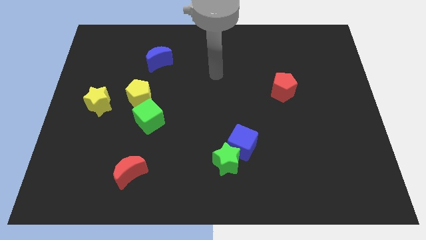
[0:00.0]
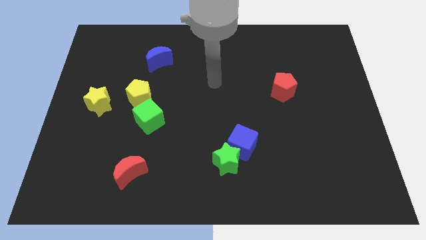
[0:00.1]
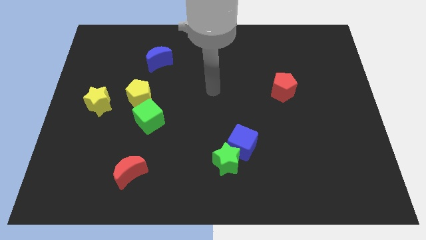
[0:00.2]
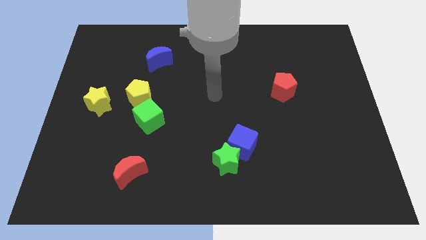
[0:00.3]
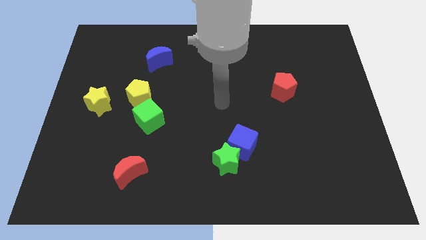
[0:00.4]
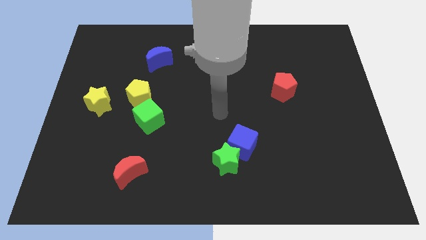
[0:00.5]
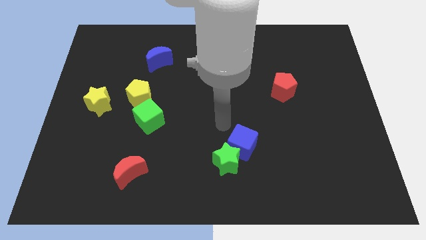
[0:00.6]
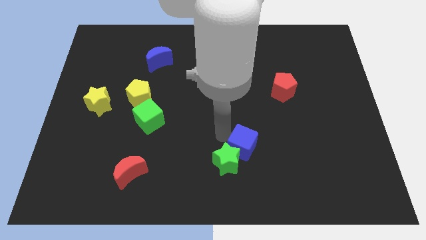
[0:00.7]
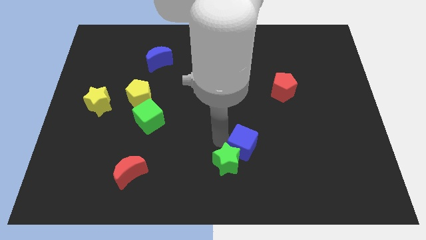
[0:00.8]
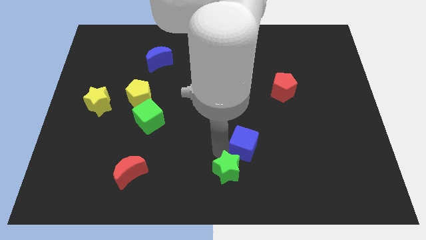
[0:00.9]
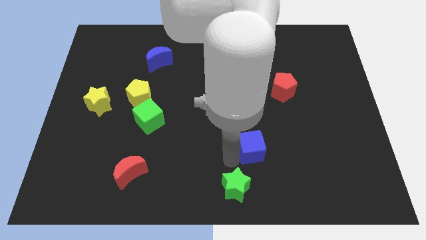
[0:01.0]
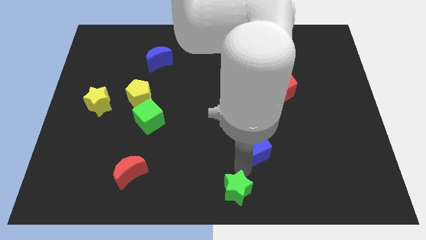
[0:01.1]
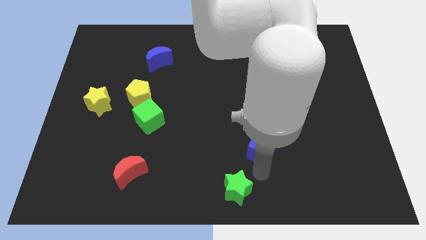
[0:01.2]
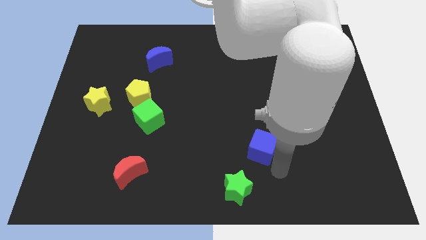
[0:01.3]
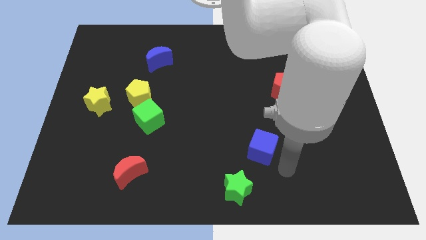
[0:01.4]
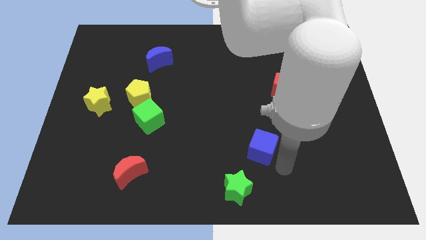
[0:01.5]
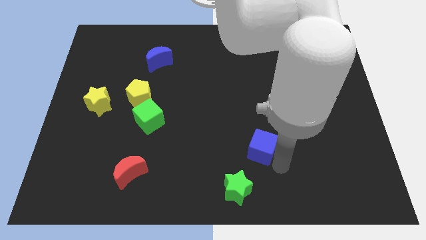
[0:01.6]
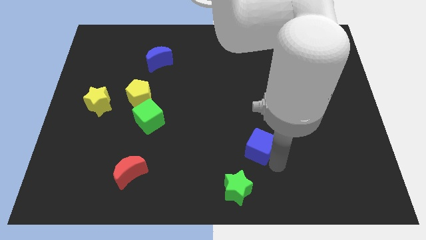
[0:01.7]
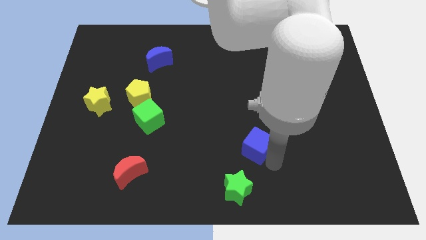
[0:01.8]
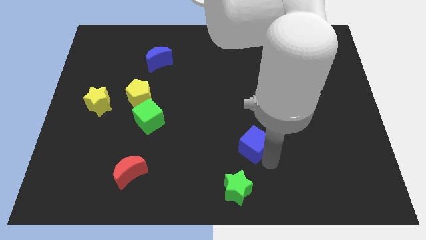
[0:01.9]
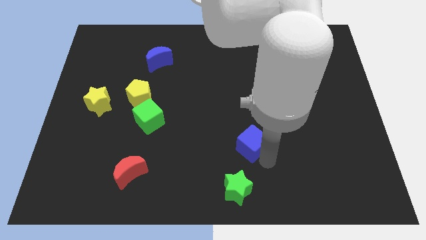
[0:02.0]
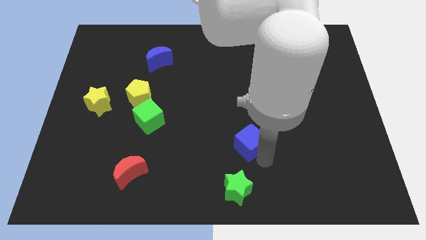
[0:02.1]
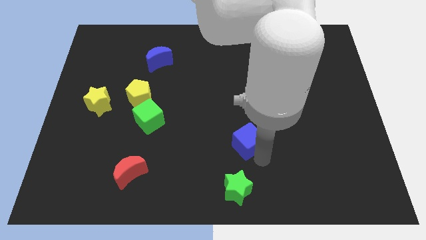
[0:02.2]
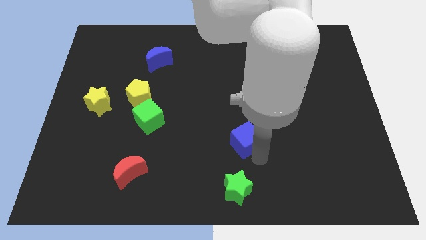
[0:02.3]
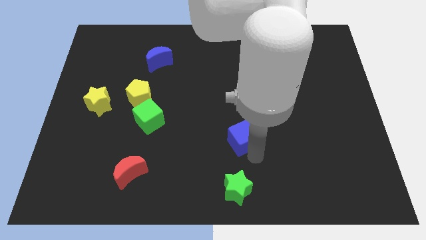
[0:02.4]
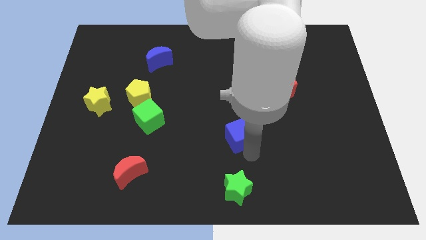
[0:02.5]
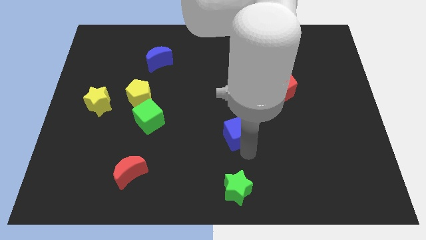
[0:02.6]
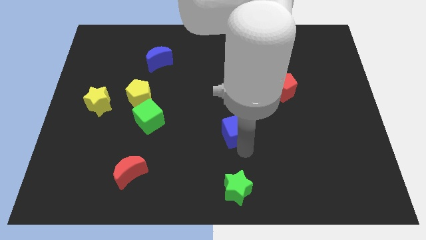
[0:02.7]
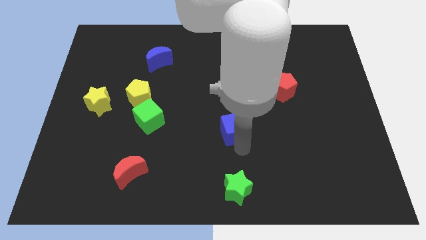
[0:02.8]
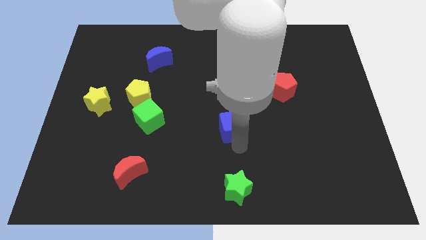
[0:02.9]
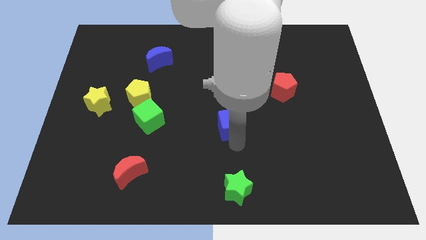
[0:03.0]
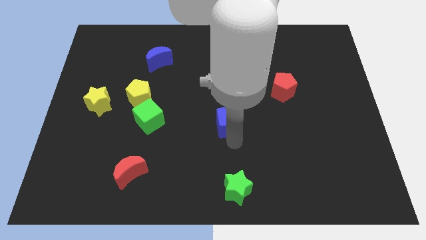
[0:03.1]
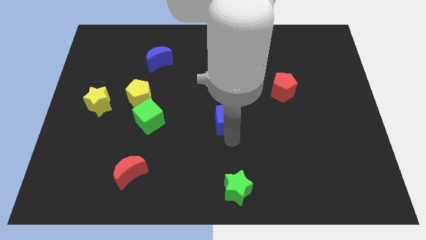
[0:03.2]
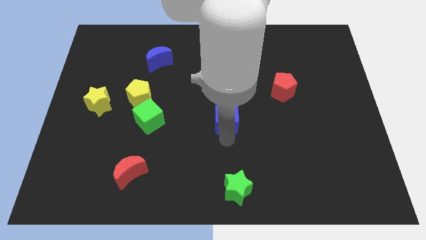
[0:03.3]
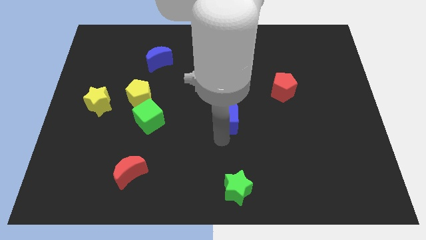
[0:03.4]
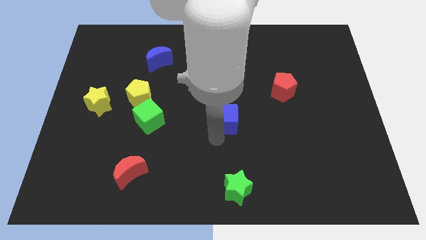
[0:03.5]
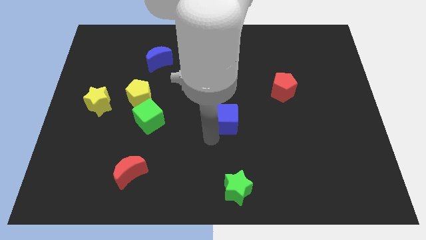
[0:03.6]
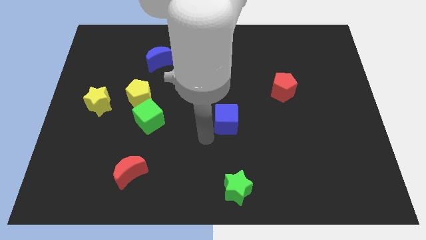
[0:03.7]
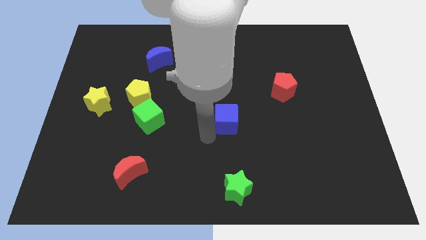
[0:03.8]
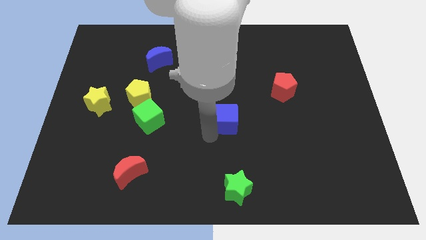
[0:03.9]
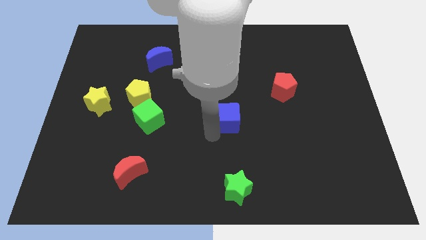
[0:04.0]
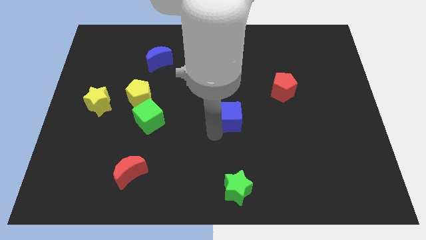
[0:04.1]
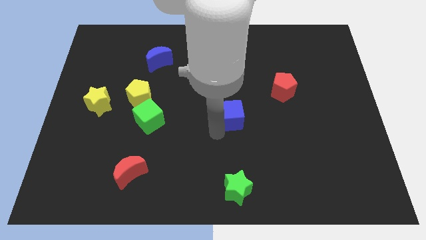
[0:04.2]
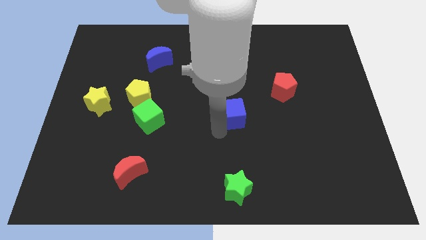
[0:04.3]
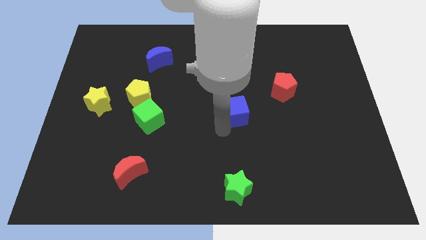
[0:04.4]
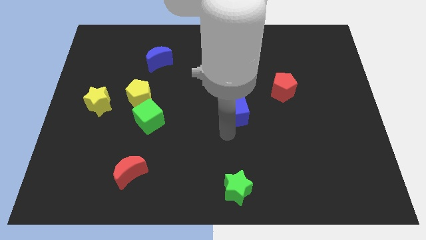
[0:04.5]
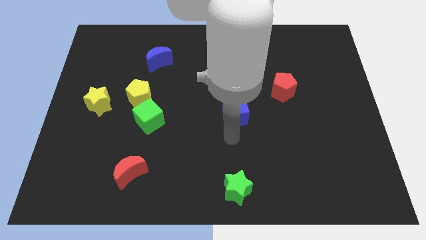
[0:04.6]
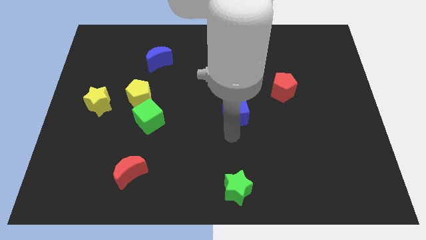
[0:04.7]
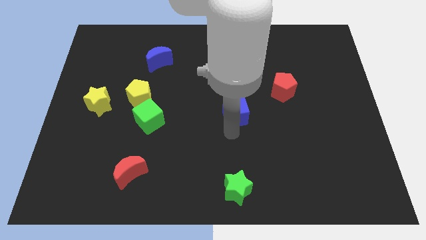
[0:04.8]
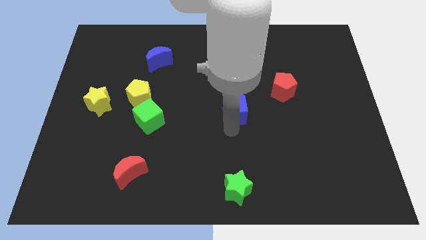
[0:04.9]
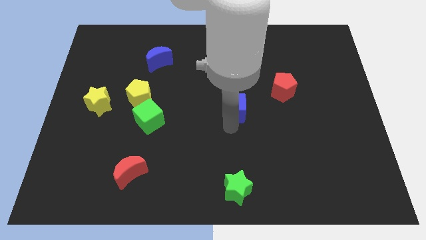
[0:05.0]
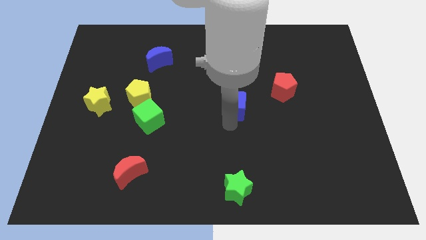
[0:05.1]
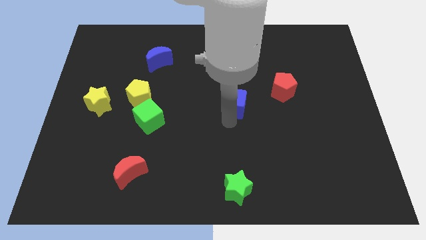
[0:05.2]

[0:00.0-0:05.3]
slide the blue cube to the left side of the red pentagon

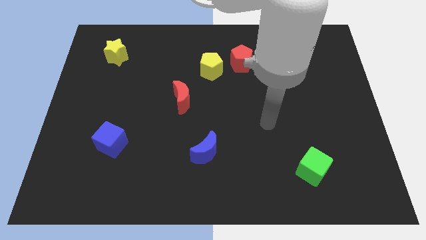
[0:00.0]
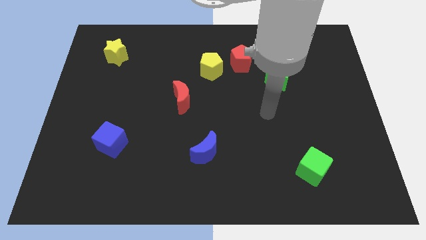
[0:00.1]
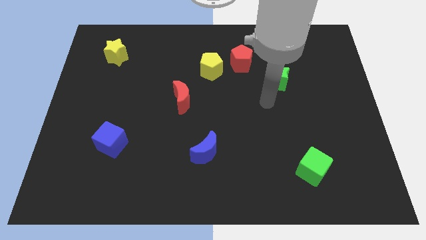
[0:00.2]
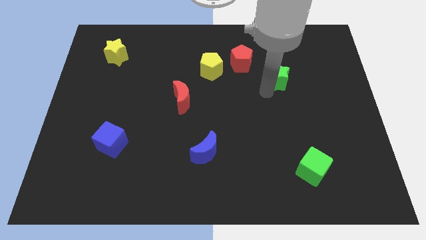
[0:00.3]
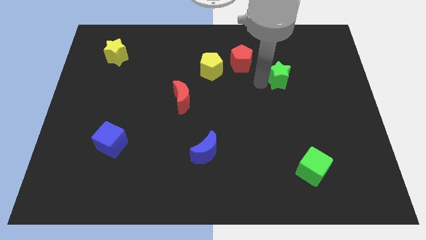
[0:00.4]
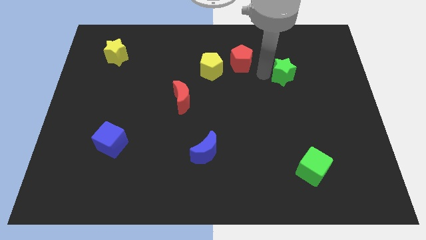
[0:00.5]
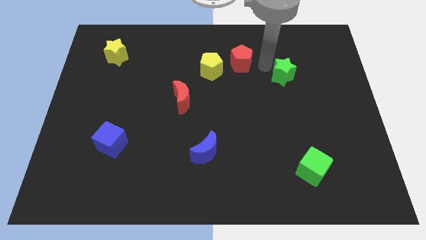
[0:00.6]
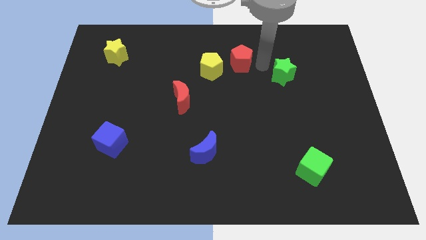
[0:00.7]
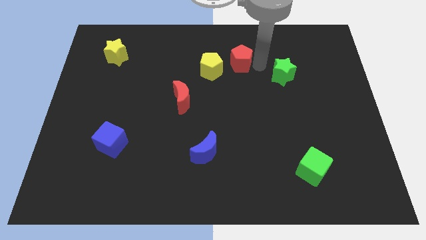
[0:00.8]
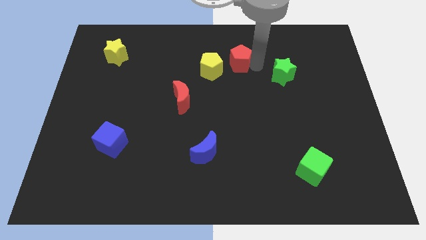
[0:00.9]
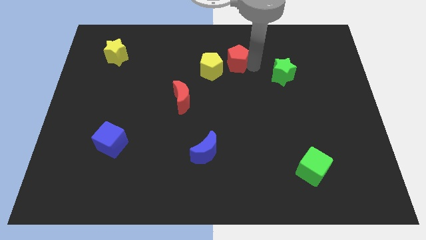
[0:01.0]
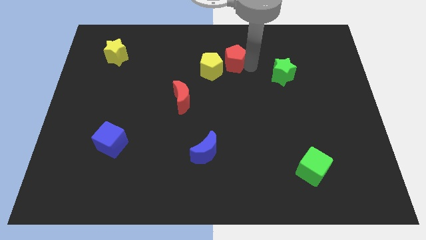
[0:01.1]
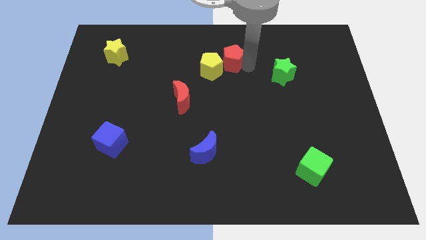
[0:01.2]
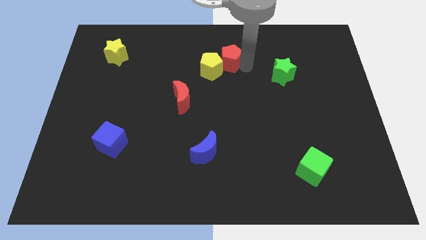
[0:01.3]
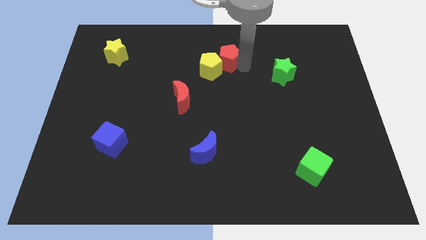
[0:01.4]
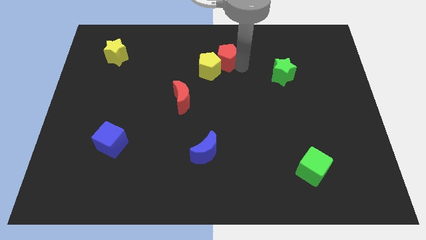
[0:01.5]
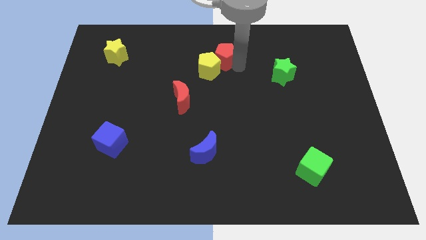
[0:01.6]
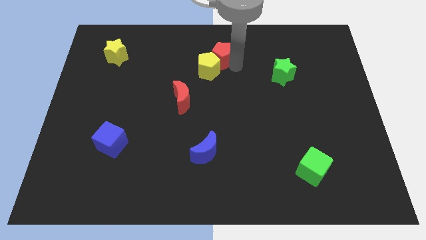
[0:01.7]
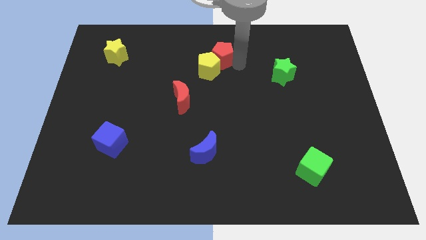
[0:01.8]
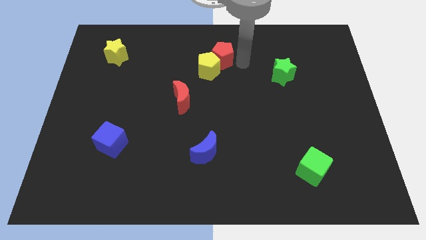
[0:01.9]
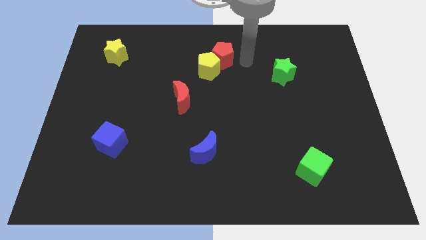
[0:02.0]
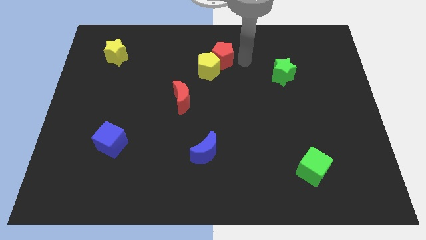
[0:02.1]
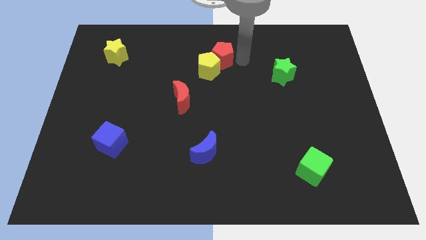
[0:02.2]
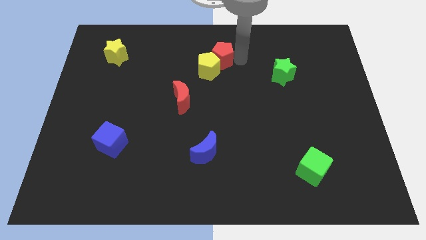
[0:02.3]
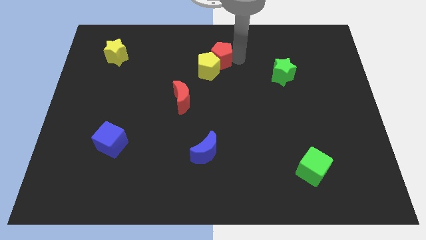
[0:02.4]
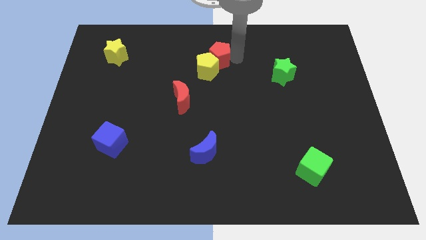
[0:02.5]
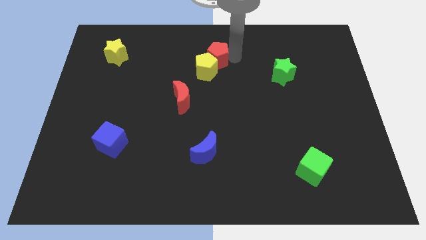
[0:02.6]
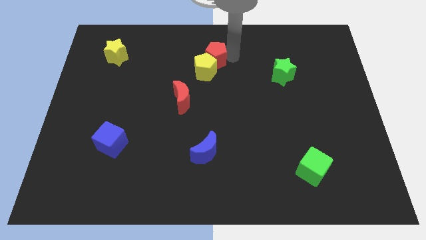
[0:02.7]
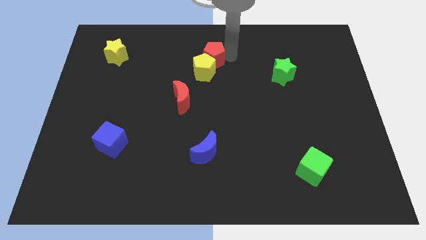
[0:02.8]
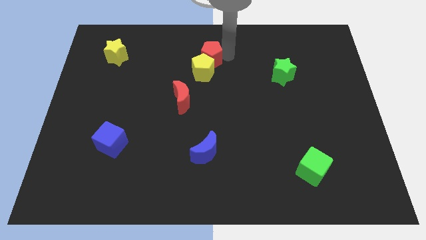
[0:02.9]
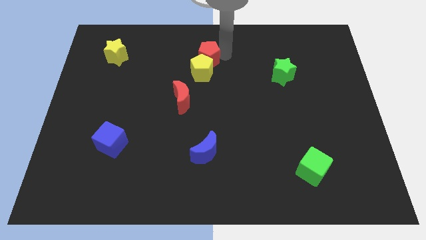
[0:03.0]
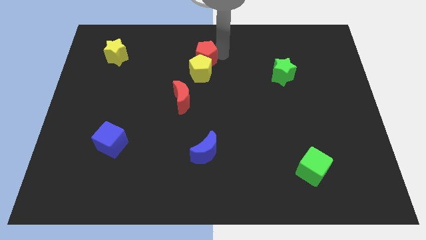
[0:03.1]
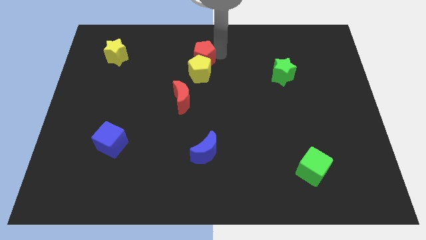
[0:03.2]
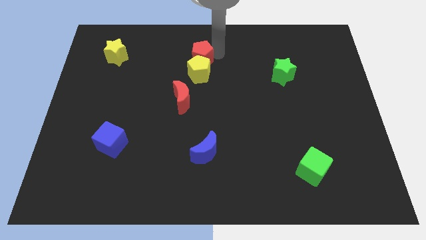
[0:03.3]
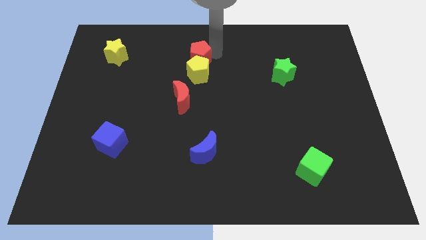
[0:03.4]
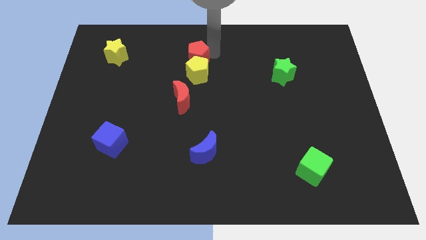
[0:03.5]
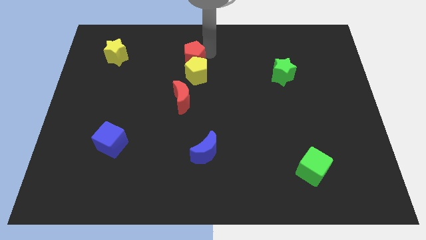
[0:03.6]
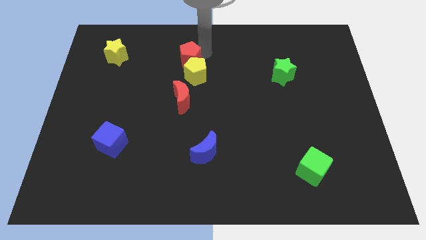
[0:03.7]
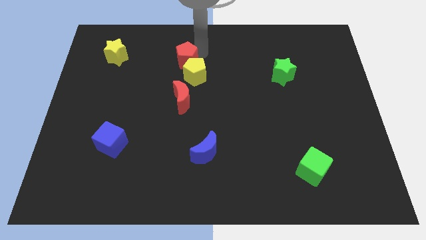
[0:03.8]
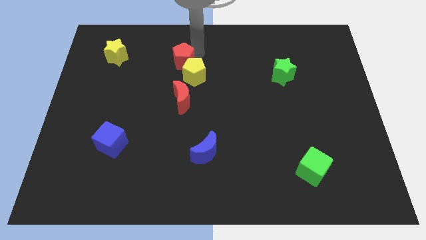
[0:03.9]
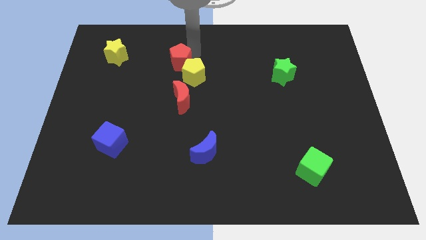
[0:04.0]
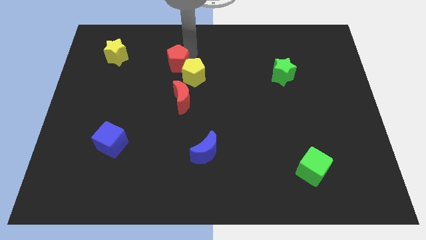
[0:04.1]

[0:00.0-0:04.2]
put the red pentagon just left of the yellow pentagon
